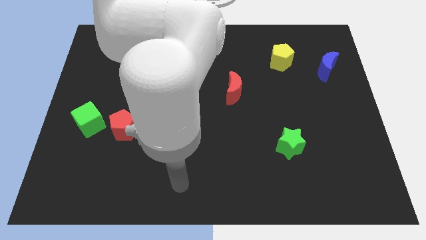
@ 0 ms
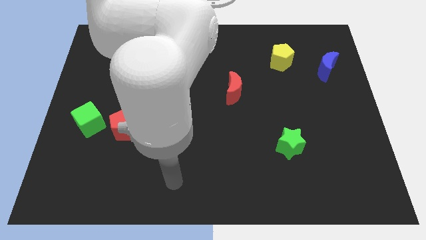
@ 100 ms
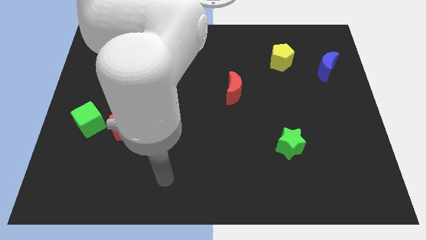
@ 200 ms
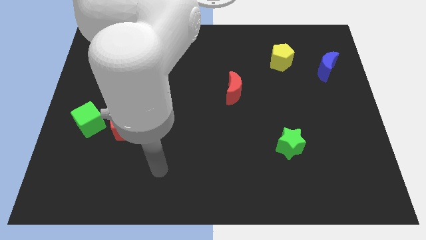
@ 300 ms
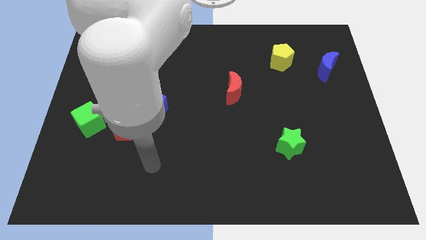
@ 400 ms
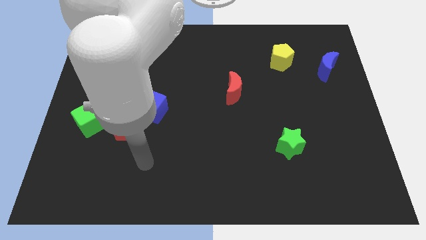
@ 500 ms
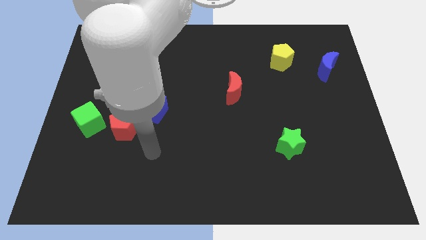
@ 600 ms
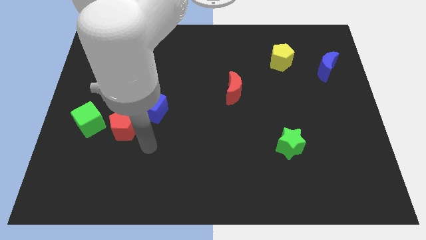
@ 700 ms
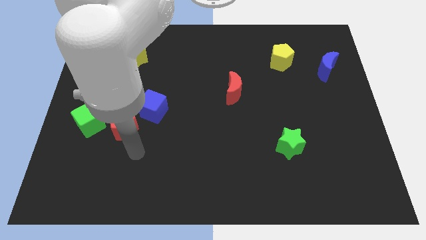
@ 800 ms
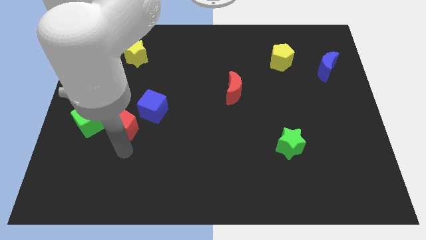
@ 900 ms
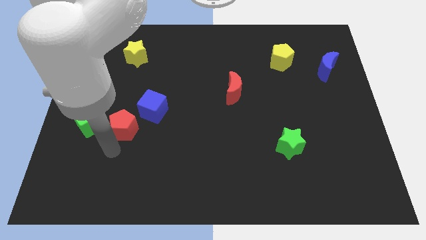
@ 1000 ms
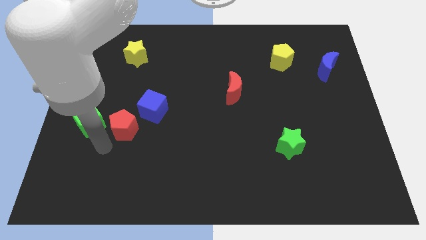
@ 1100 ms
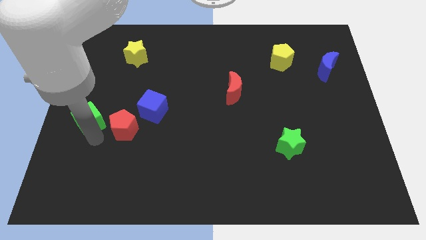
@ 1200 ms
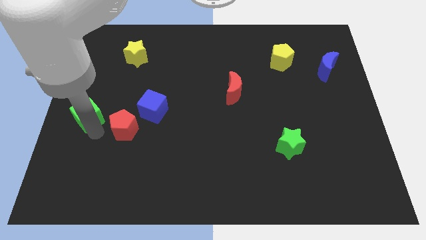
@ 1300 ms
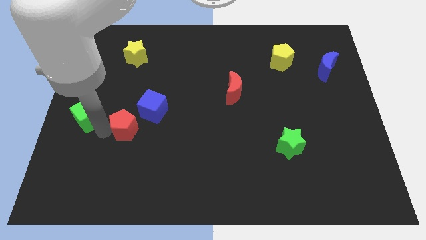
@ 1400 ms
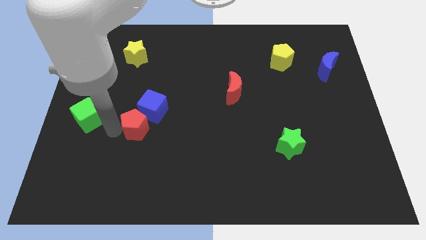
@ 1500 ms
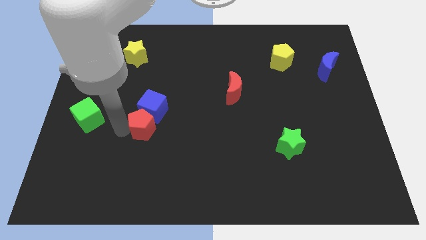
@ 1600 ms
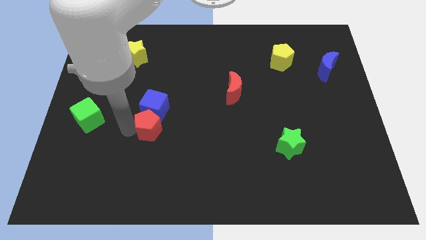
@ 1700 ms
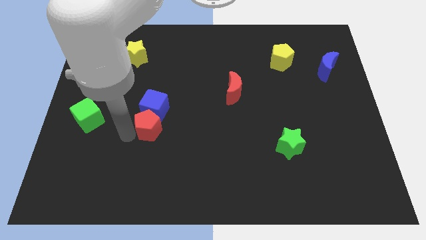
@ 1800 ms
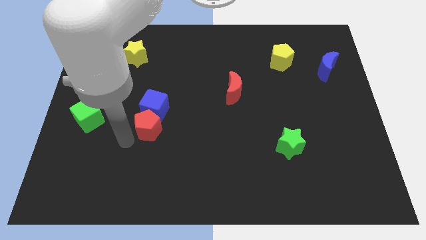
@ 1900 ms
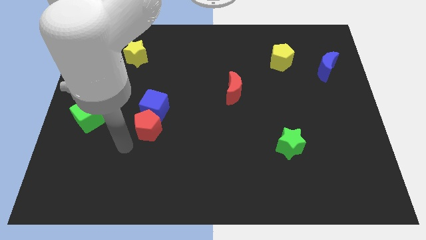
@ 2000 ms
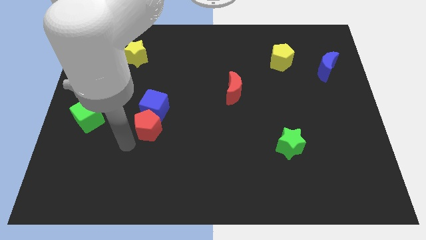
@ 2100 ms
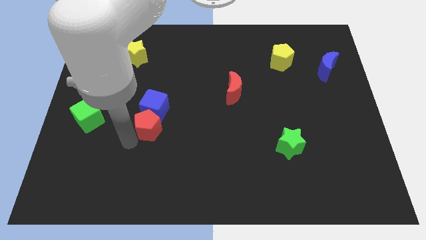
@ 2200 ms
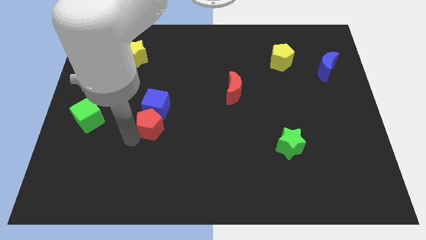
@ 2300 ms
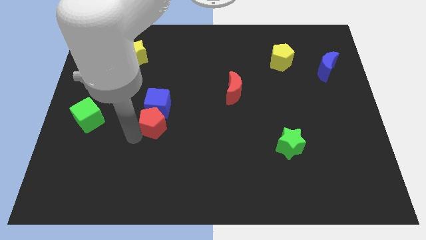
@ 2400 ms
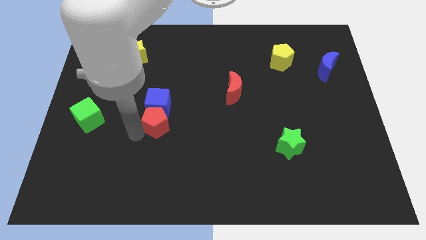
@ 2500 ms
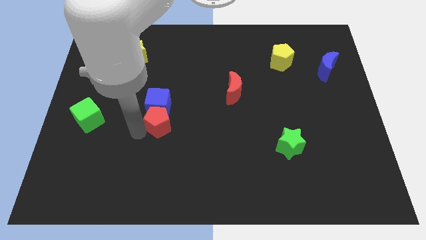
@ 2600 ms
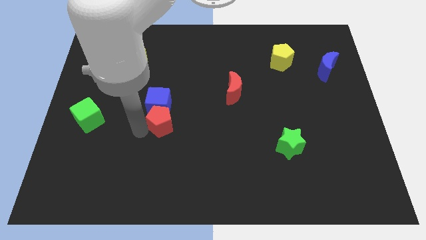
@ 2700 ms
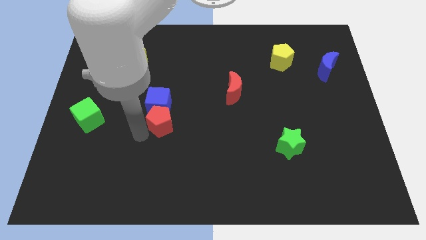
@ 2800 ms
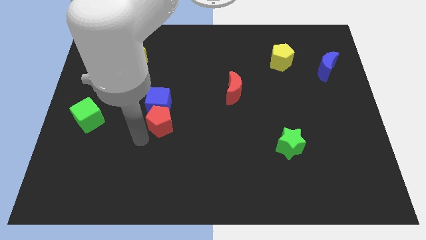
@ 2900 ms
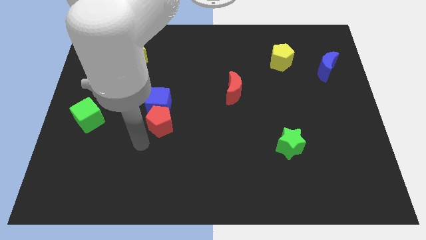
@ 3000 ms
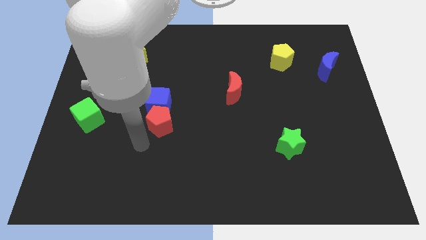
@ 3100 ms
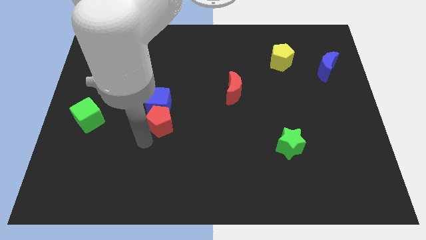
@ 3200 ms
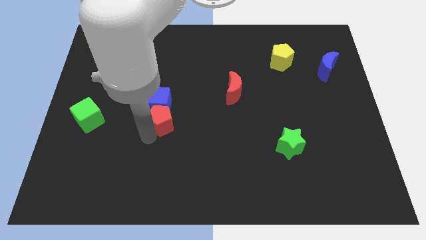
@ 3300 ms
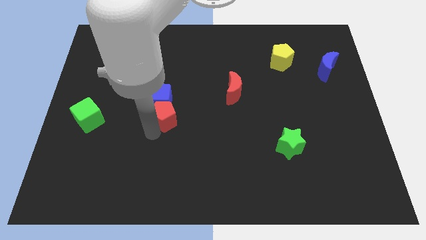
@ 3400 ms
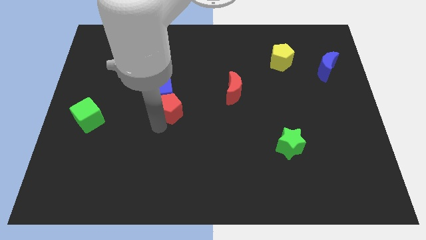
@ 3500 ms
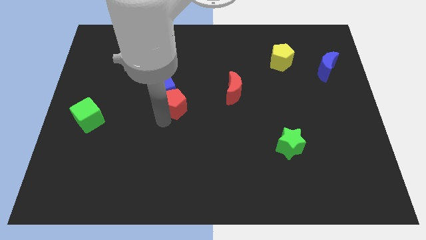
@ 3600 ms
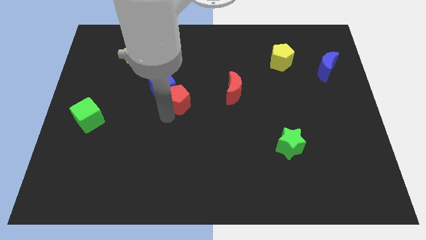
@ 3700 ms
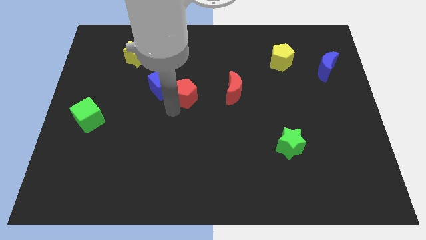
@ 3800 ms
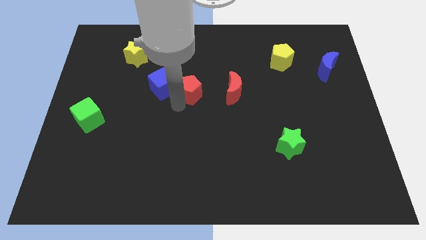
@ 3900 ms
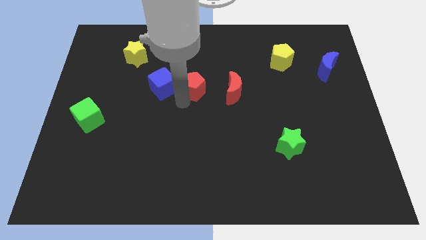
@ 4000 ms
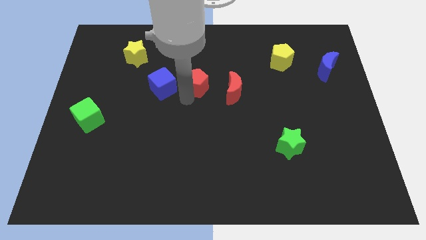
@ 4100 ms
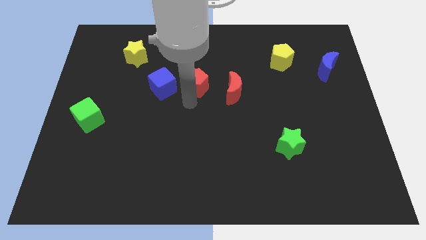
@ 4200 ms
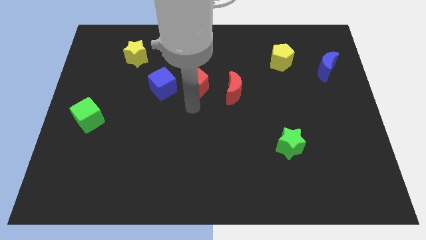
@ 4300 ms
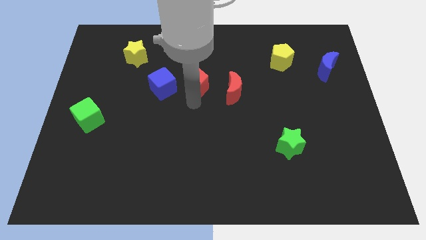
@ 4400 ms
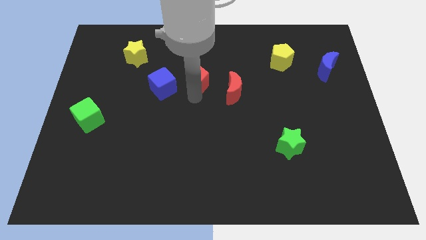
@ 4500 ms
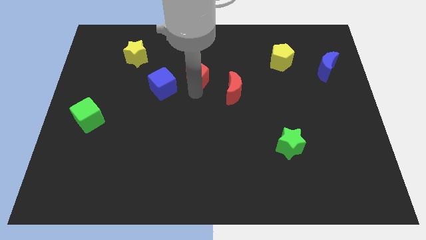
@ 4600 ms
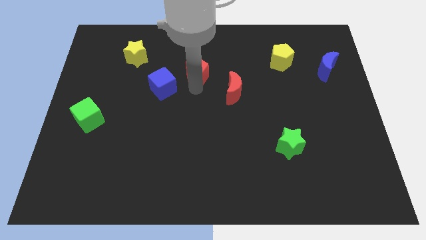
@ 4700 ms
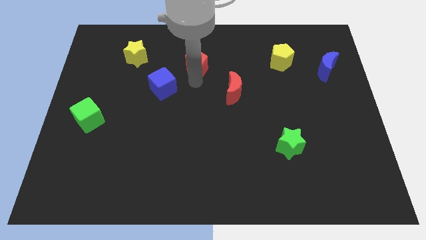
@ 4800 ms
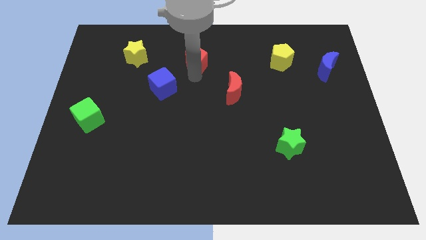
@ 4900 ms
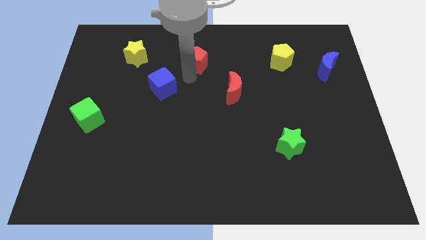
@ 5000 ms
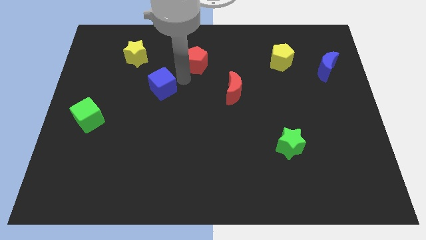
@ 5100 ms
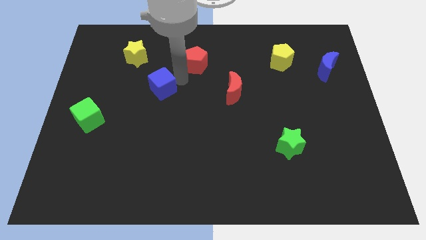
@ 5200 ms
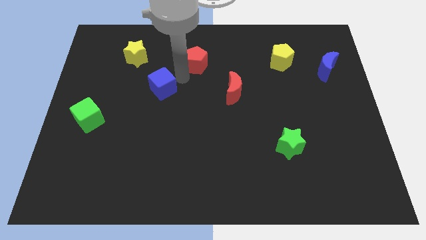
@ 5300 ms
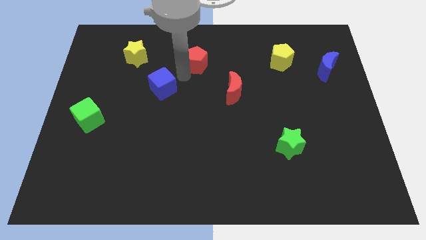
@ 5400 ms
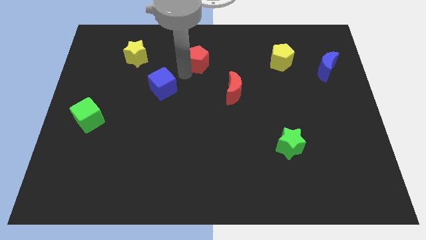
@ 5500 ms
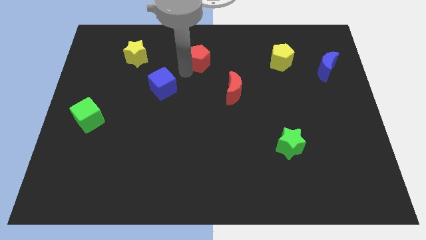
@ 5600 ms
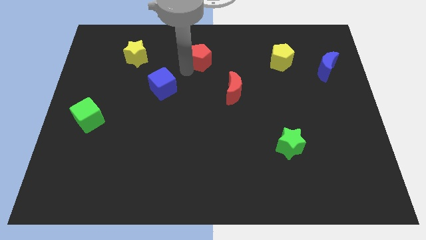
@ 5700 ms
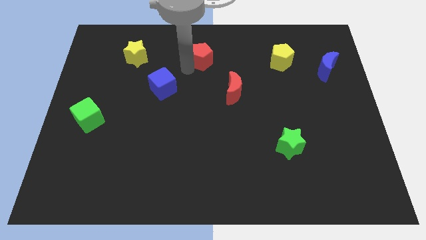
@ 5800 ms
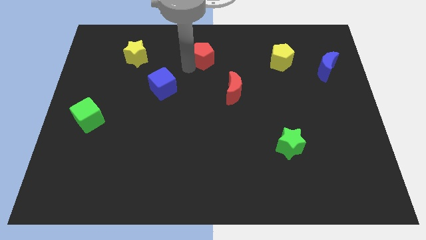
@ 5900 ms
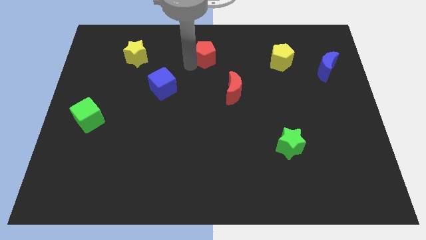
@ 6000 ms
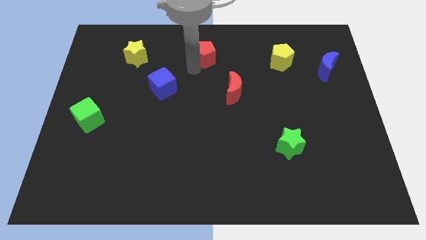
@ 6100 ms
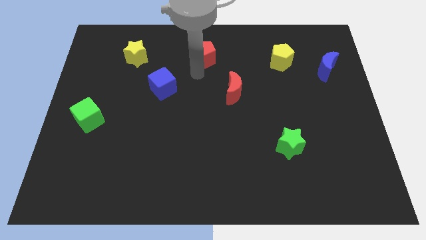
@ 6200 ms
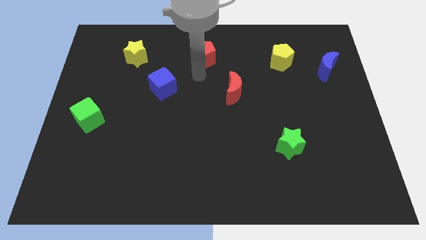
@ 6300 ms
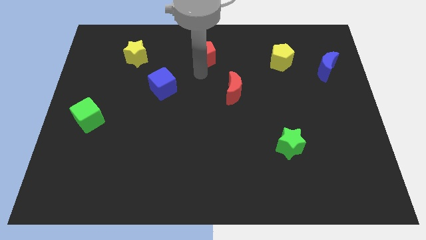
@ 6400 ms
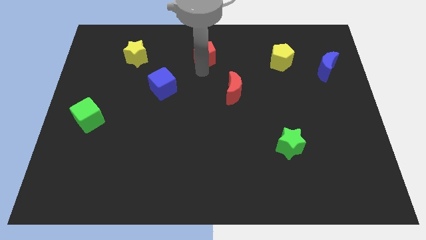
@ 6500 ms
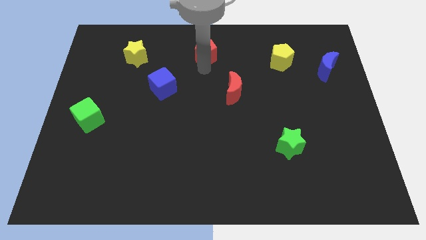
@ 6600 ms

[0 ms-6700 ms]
put the red pentagon to the towards your base
